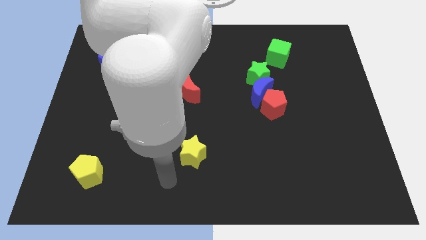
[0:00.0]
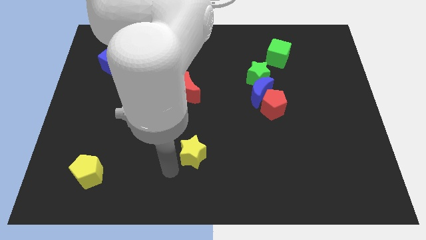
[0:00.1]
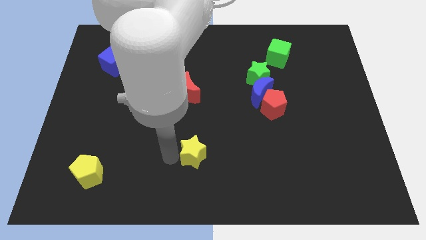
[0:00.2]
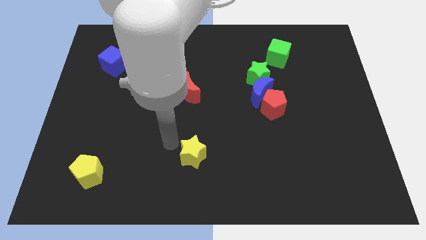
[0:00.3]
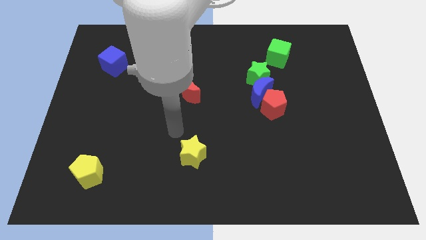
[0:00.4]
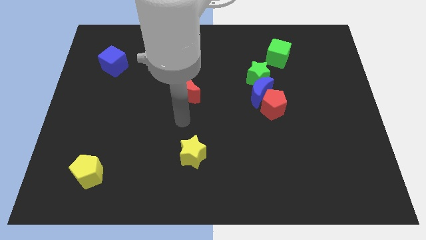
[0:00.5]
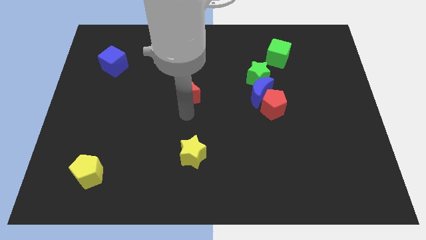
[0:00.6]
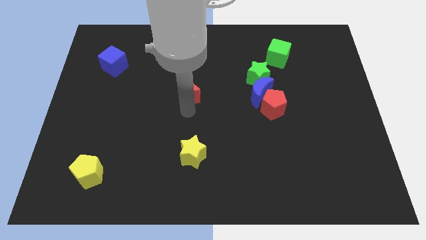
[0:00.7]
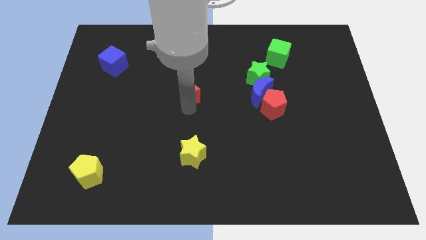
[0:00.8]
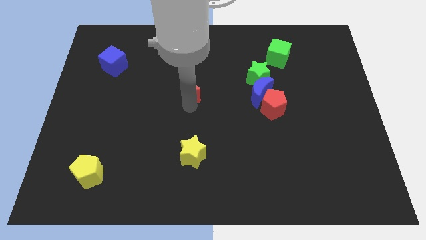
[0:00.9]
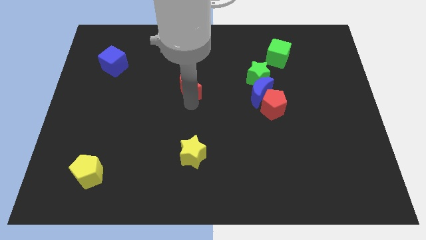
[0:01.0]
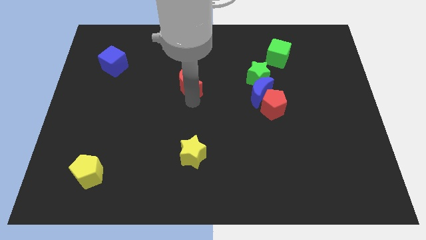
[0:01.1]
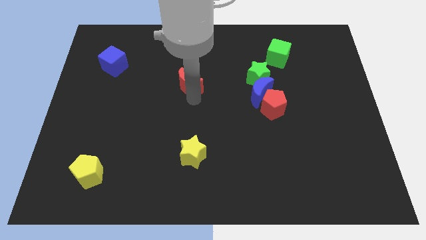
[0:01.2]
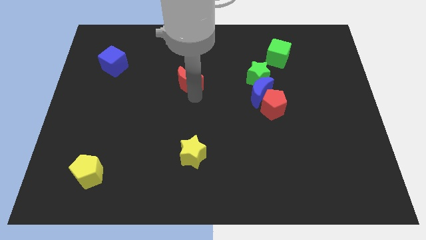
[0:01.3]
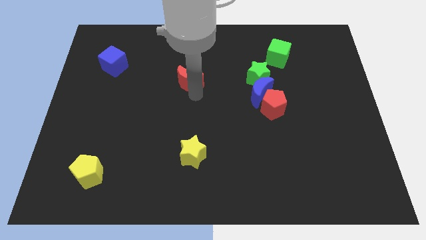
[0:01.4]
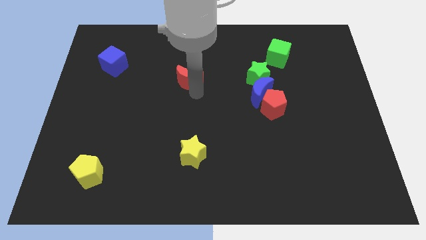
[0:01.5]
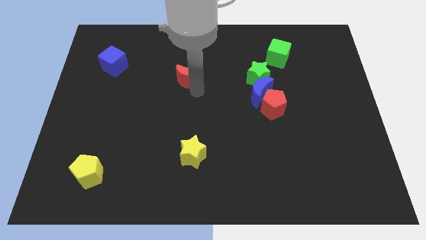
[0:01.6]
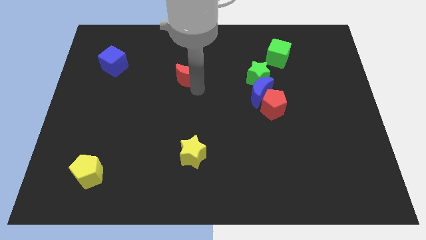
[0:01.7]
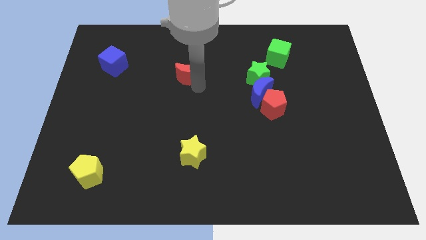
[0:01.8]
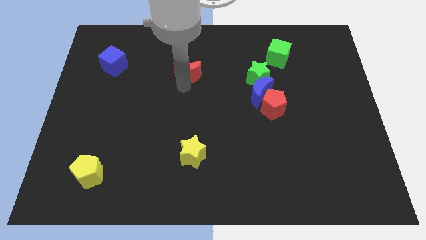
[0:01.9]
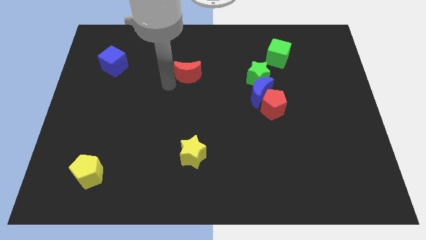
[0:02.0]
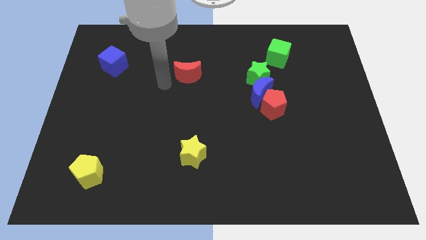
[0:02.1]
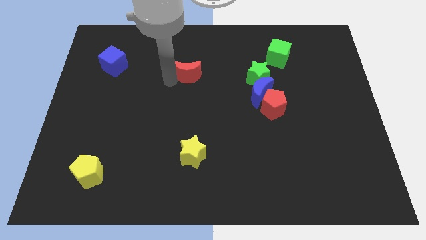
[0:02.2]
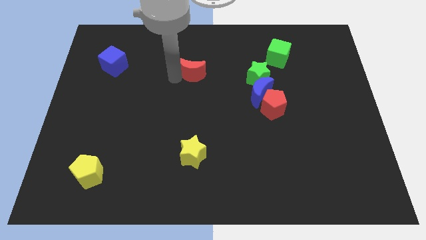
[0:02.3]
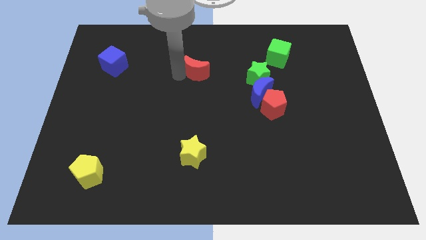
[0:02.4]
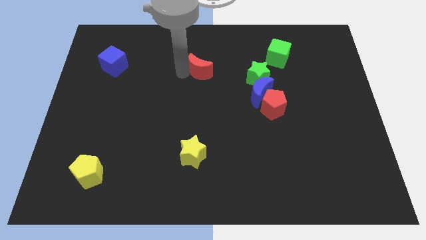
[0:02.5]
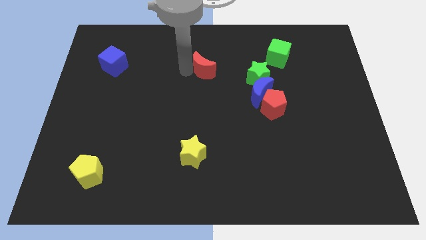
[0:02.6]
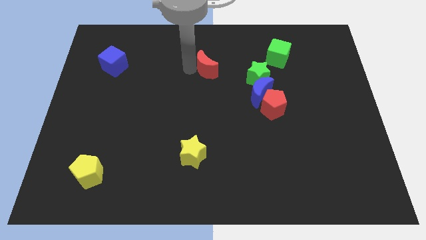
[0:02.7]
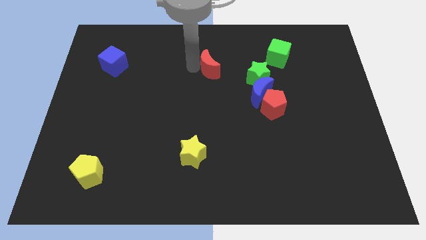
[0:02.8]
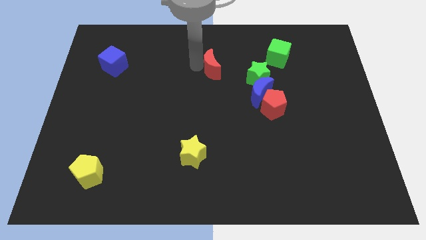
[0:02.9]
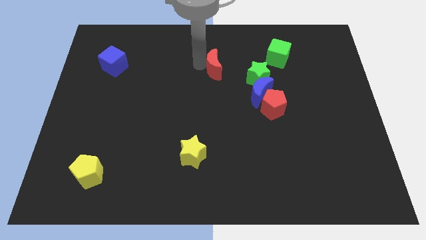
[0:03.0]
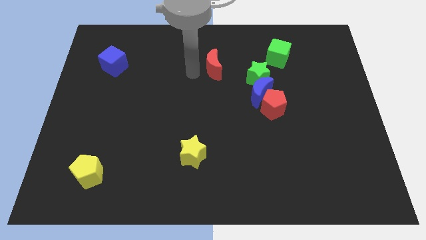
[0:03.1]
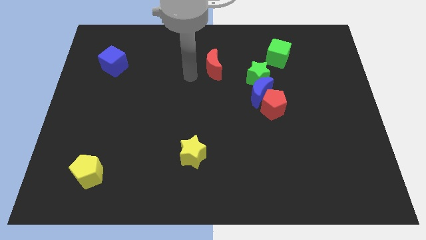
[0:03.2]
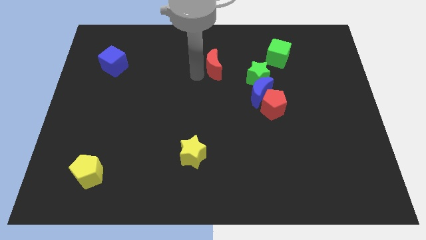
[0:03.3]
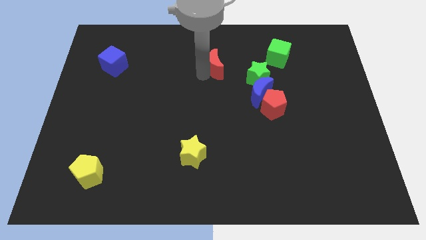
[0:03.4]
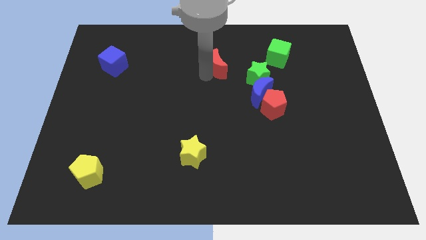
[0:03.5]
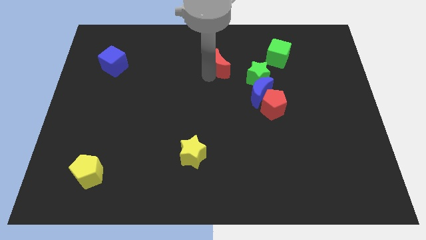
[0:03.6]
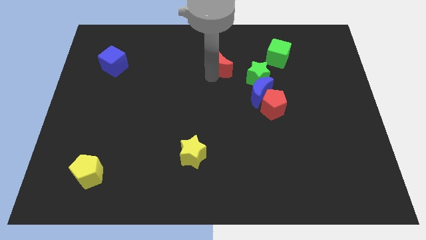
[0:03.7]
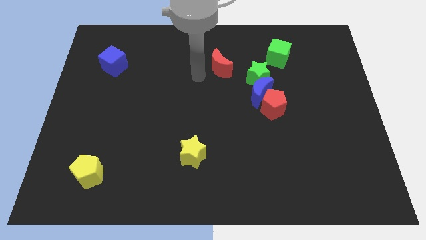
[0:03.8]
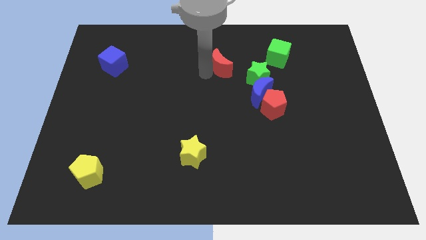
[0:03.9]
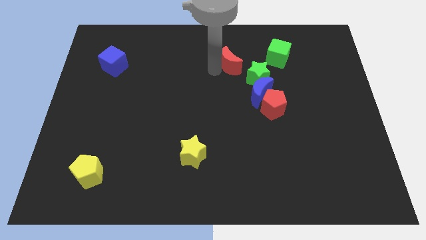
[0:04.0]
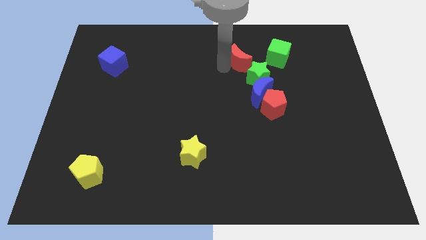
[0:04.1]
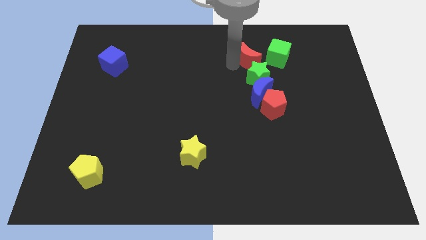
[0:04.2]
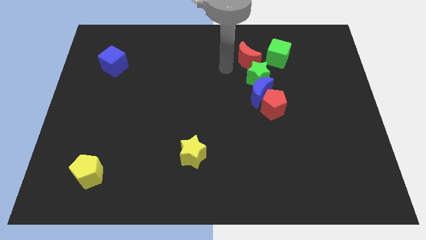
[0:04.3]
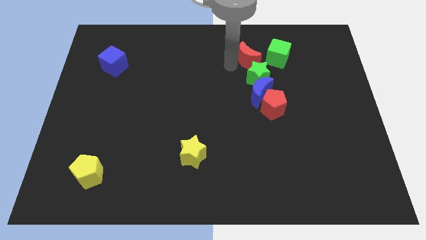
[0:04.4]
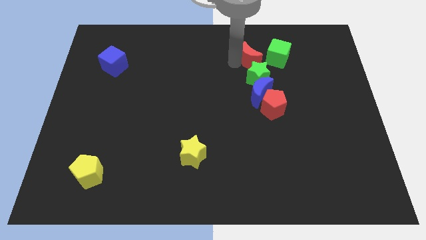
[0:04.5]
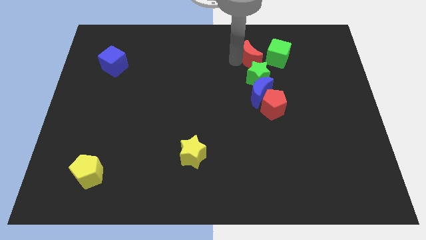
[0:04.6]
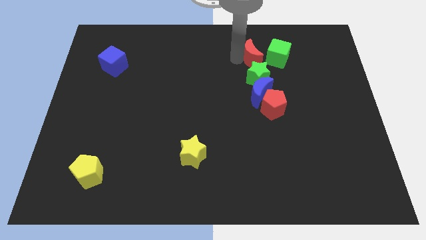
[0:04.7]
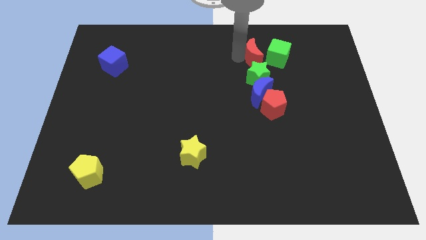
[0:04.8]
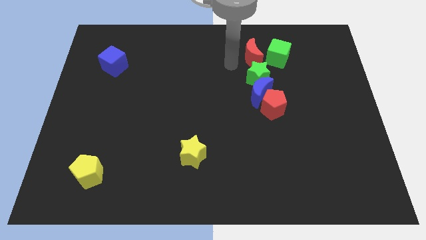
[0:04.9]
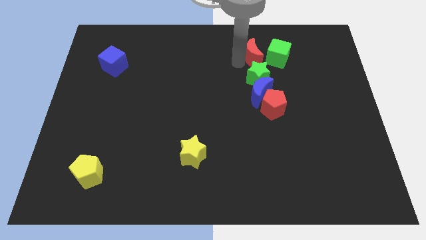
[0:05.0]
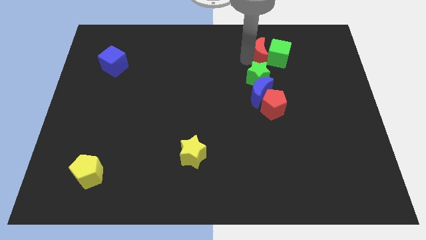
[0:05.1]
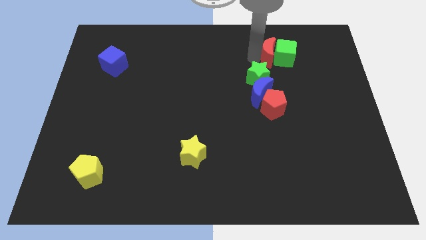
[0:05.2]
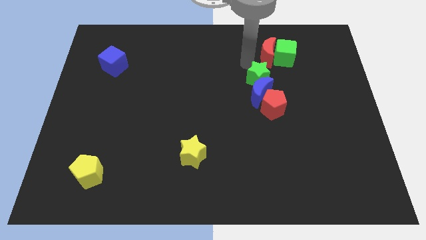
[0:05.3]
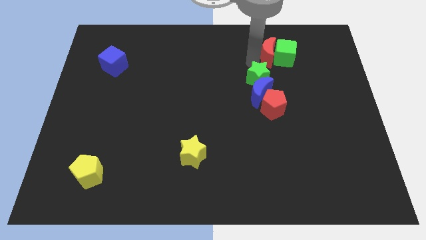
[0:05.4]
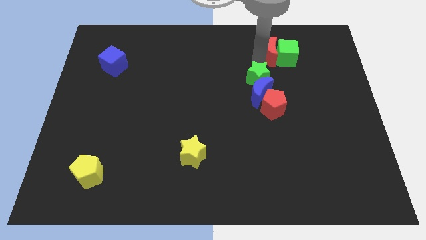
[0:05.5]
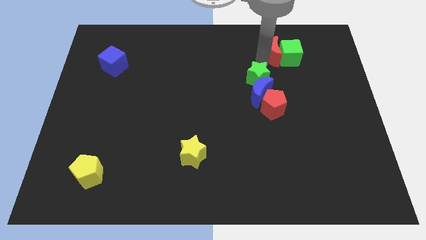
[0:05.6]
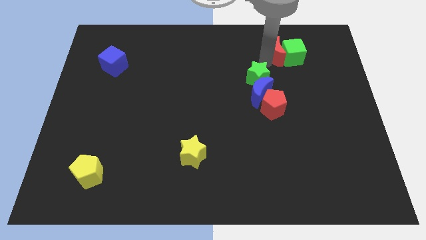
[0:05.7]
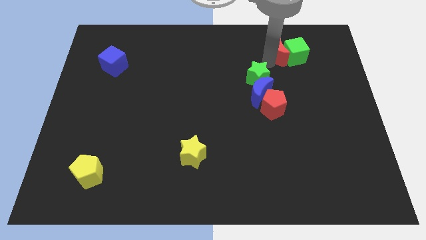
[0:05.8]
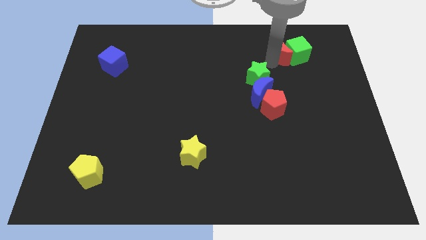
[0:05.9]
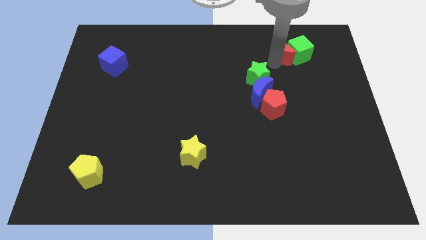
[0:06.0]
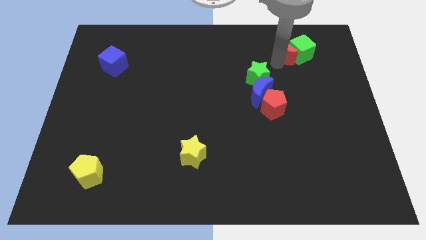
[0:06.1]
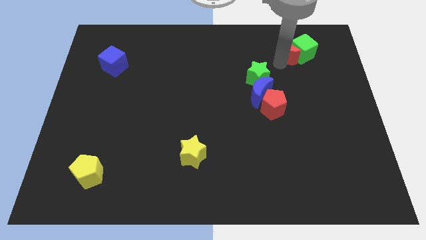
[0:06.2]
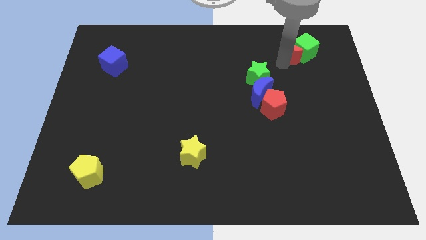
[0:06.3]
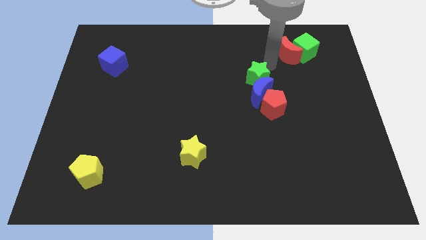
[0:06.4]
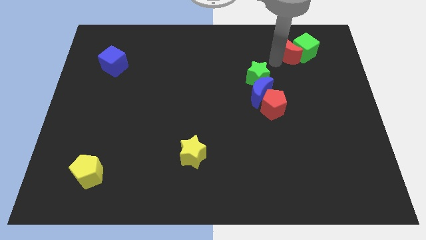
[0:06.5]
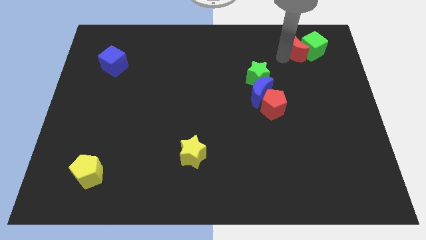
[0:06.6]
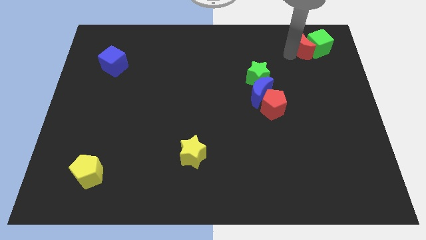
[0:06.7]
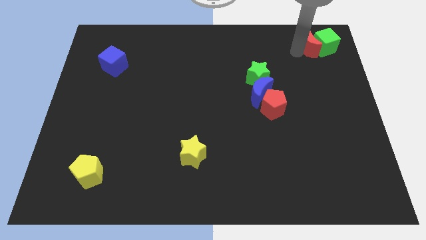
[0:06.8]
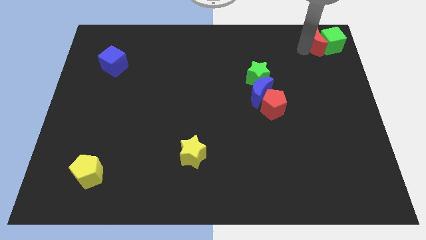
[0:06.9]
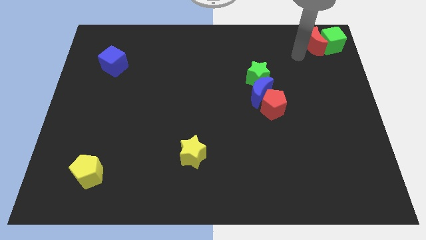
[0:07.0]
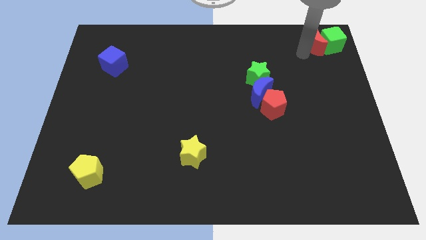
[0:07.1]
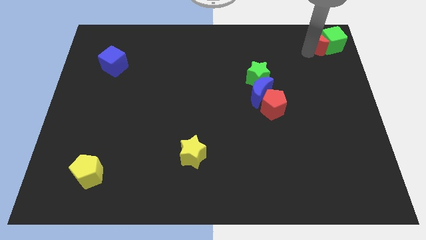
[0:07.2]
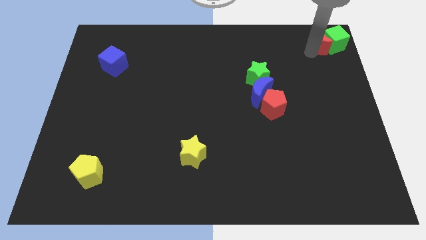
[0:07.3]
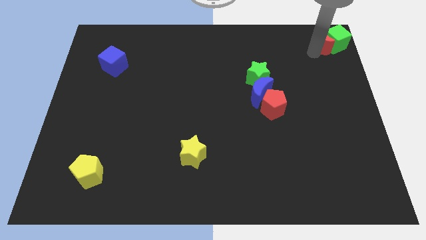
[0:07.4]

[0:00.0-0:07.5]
put the red moon to the upper right corner
